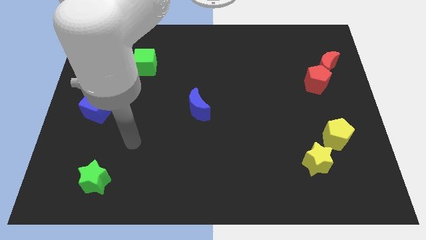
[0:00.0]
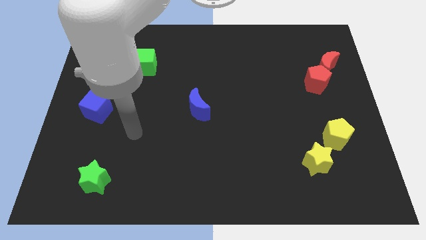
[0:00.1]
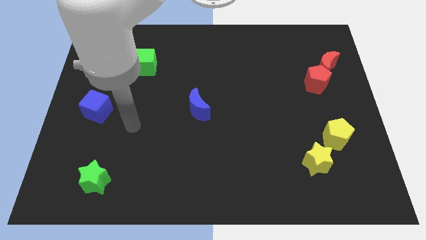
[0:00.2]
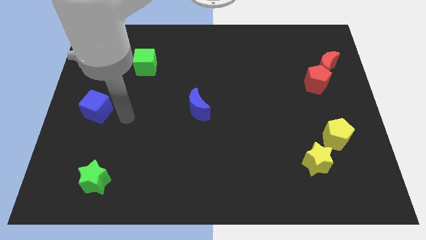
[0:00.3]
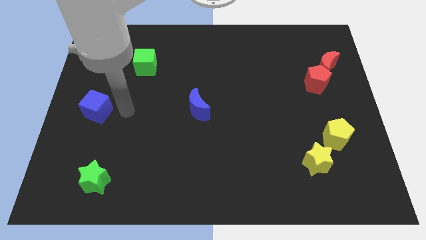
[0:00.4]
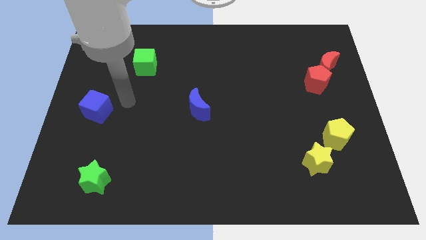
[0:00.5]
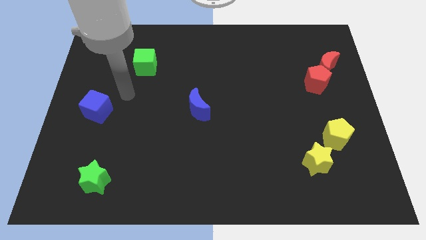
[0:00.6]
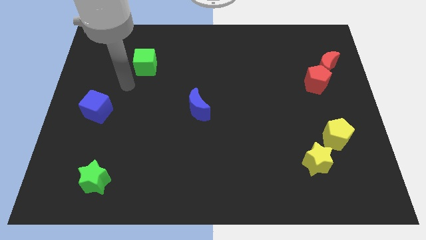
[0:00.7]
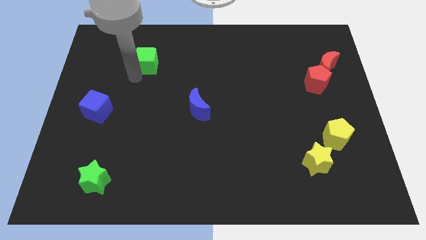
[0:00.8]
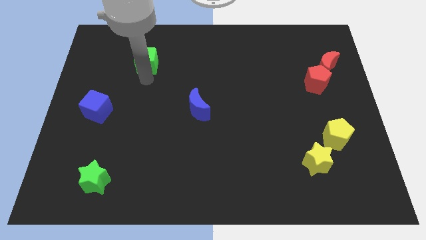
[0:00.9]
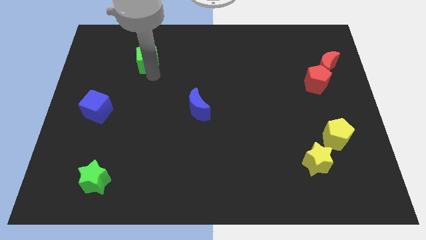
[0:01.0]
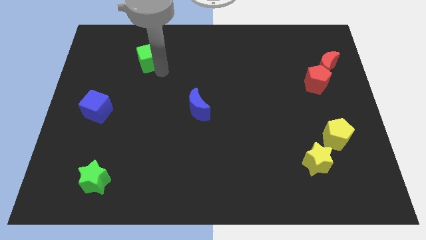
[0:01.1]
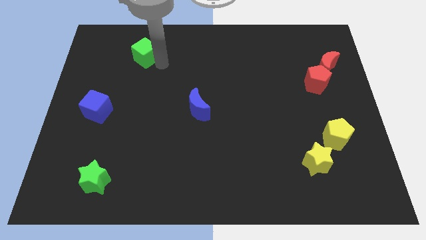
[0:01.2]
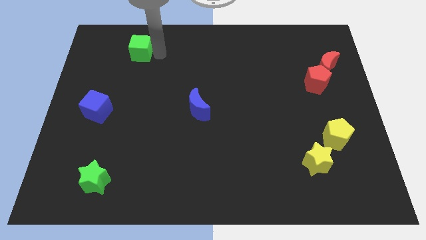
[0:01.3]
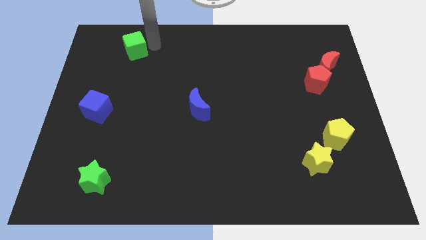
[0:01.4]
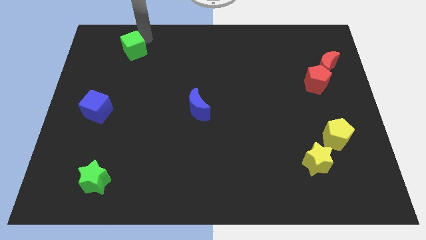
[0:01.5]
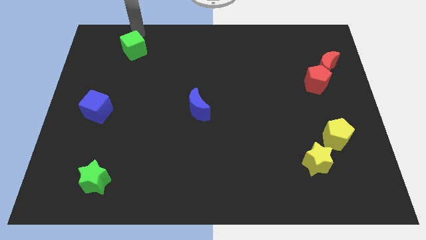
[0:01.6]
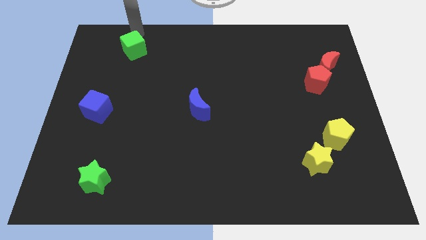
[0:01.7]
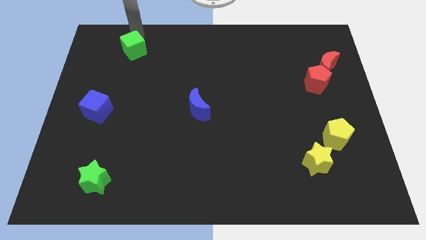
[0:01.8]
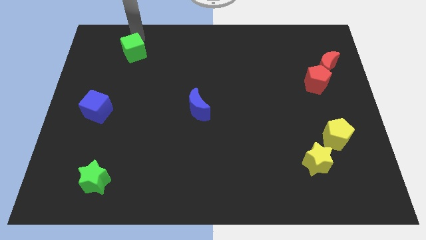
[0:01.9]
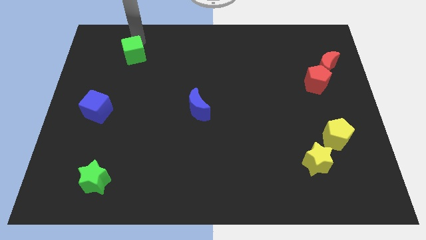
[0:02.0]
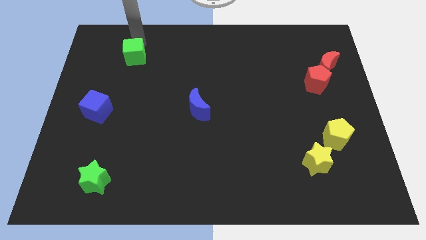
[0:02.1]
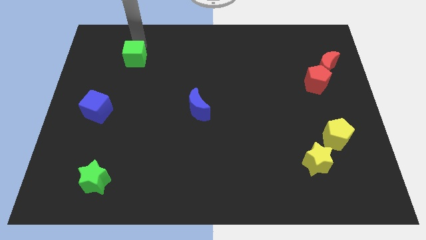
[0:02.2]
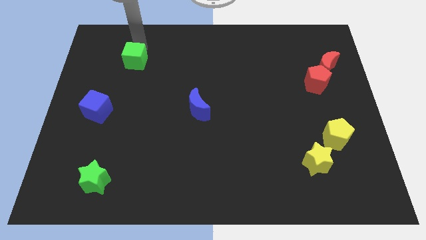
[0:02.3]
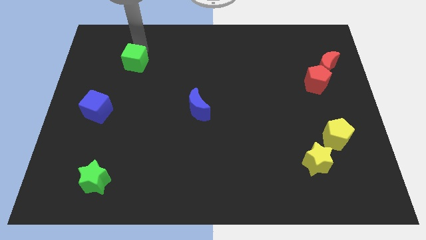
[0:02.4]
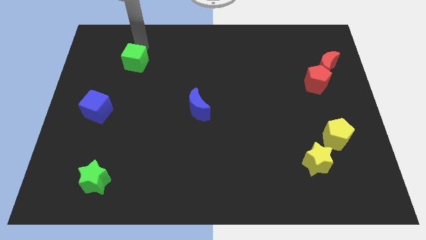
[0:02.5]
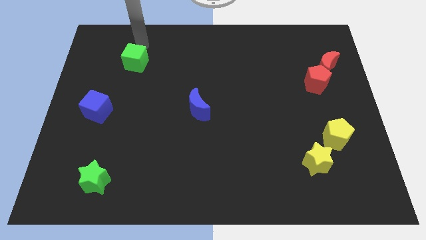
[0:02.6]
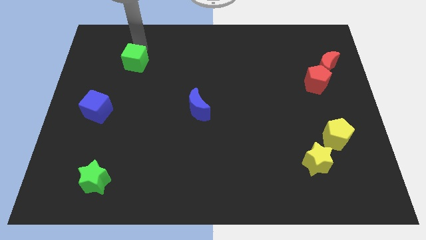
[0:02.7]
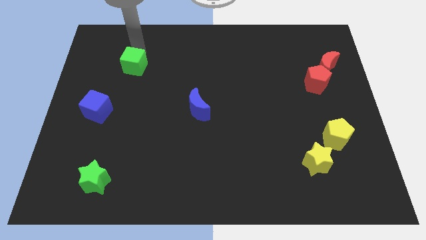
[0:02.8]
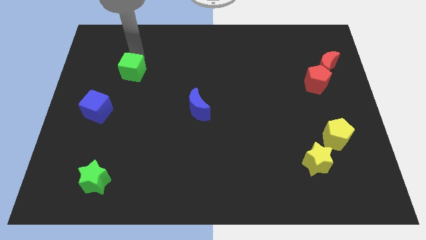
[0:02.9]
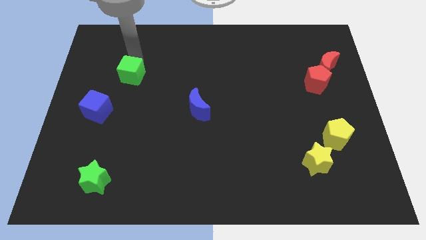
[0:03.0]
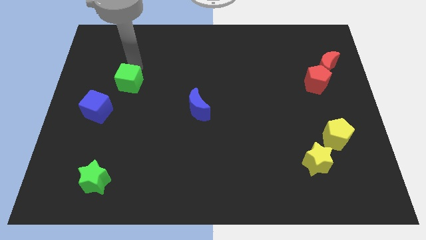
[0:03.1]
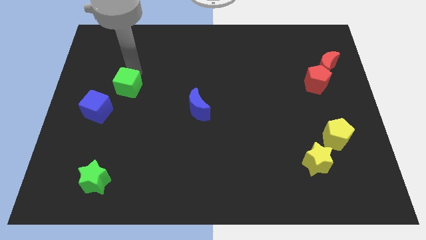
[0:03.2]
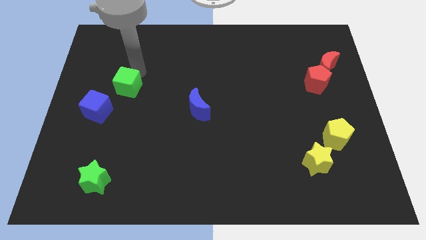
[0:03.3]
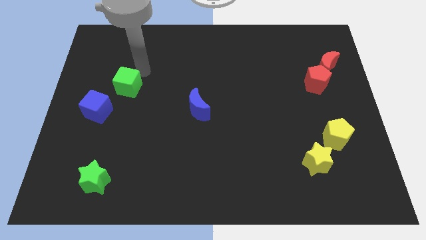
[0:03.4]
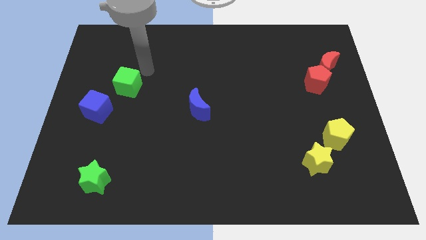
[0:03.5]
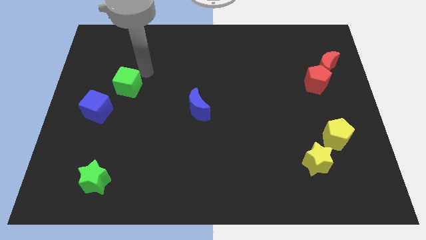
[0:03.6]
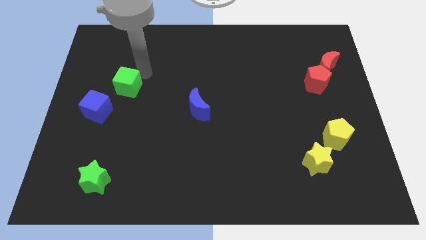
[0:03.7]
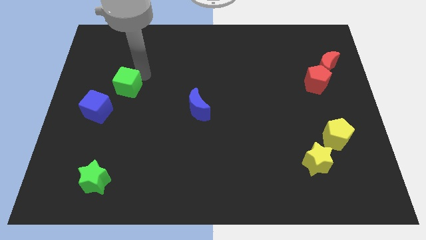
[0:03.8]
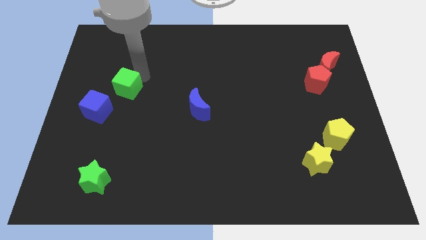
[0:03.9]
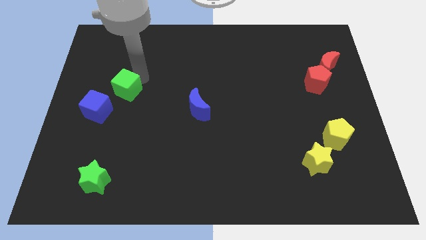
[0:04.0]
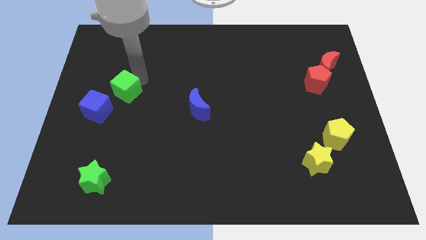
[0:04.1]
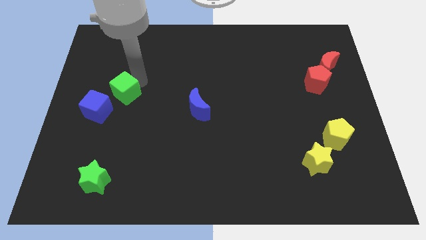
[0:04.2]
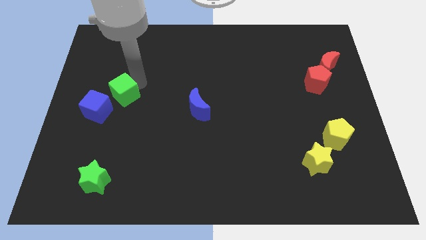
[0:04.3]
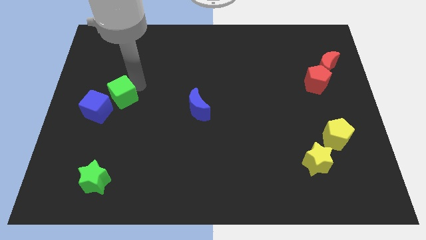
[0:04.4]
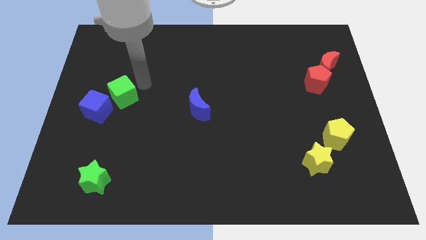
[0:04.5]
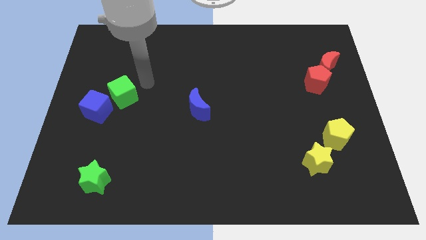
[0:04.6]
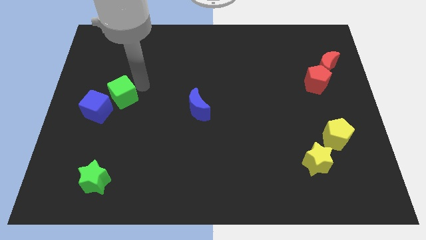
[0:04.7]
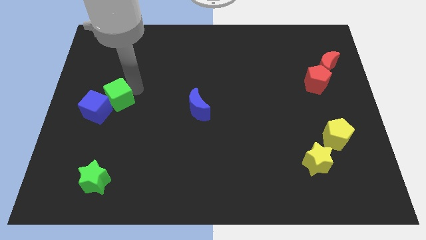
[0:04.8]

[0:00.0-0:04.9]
move the green cube towards the blue cube

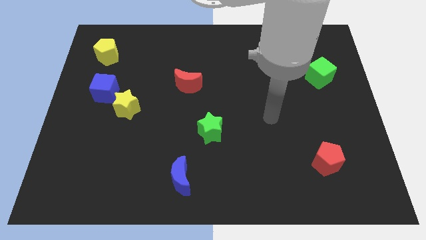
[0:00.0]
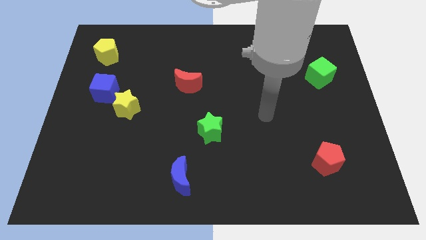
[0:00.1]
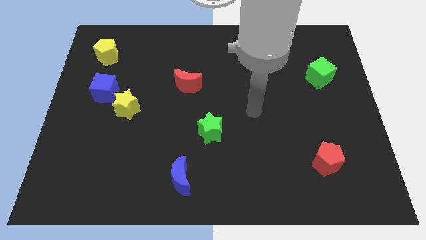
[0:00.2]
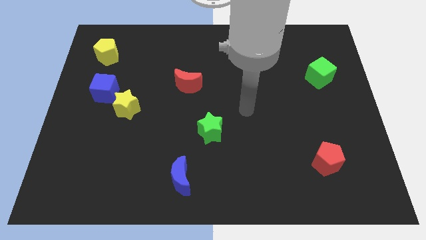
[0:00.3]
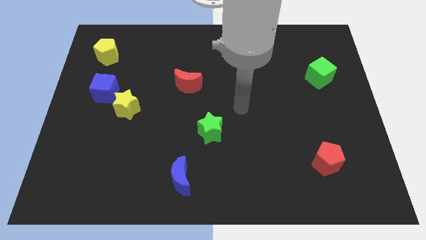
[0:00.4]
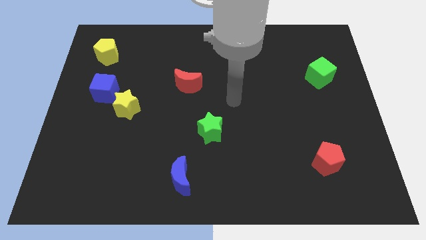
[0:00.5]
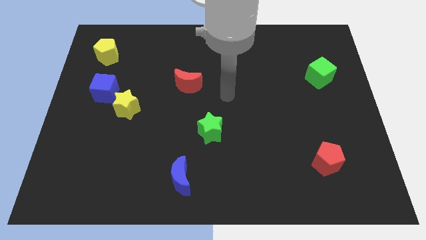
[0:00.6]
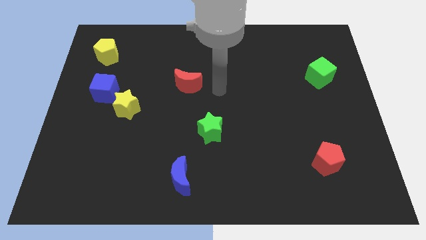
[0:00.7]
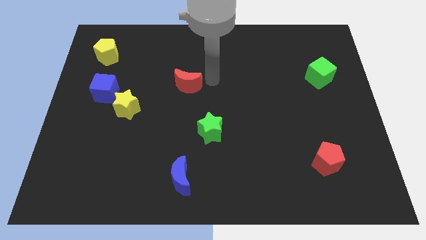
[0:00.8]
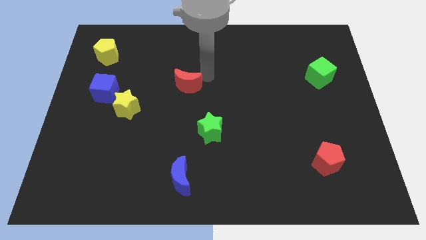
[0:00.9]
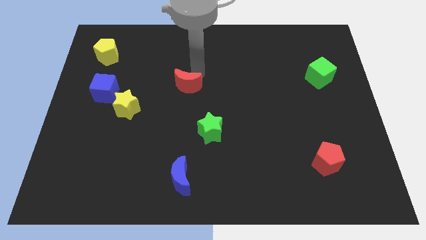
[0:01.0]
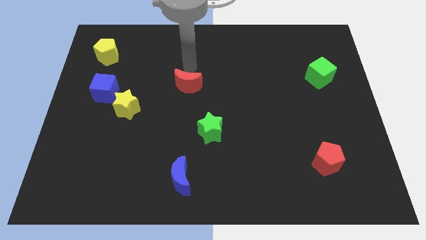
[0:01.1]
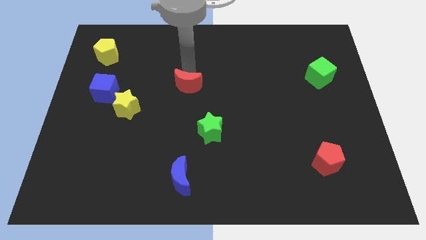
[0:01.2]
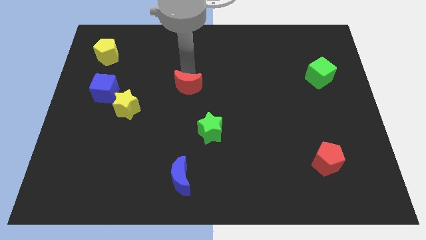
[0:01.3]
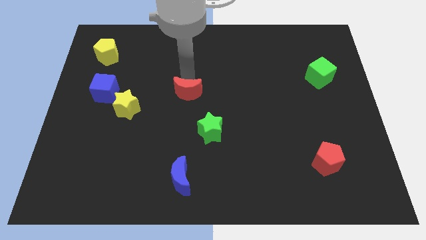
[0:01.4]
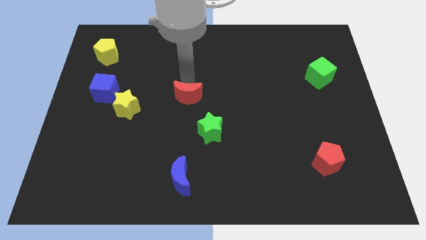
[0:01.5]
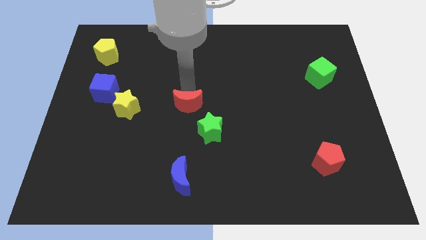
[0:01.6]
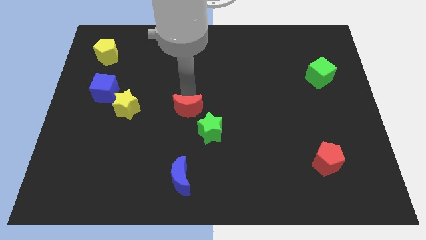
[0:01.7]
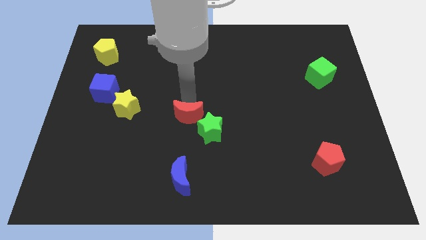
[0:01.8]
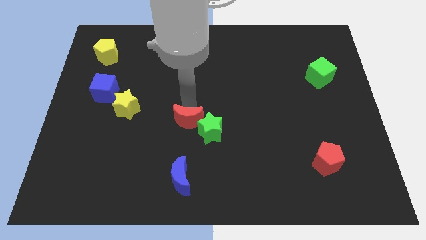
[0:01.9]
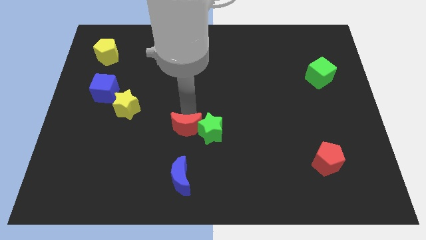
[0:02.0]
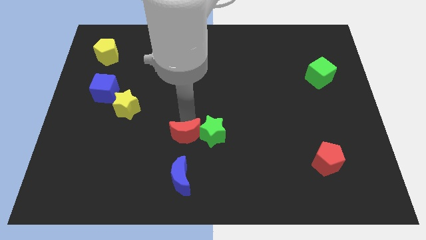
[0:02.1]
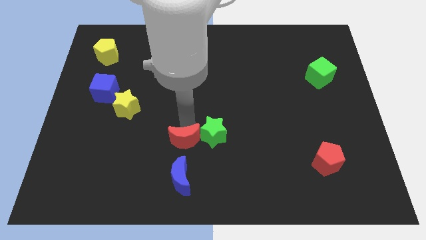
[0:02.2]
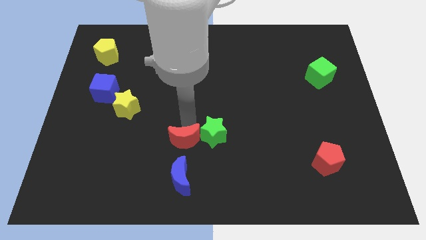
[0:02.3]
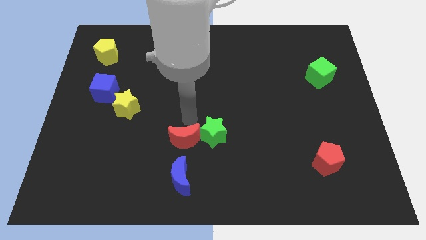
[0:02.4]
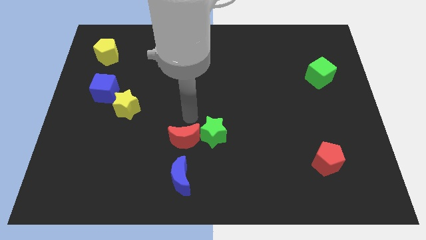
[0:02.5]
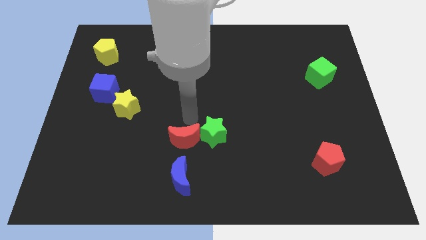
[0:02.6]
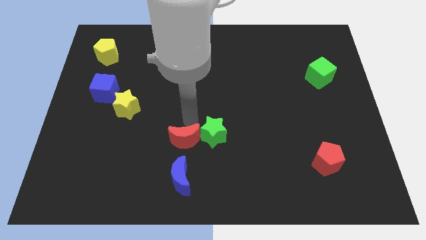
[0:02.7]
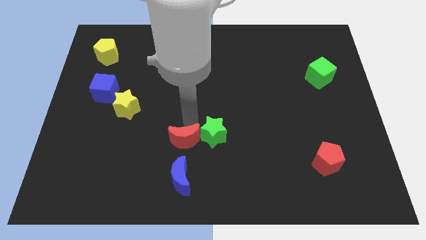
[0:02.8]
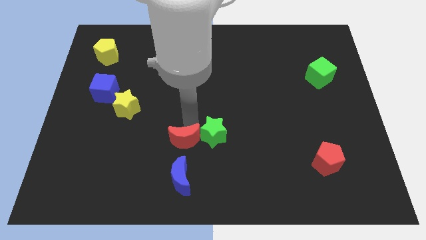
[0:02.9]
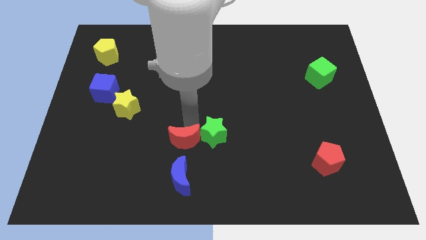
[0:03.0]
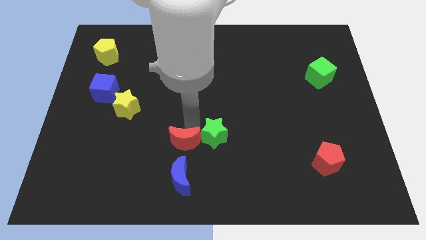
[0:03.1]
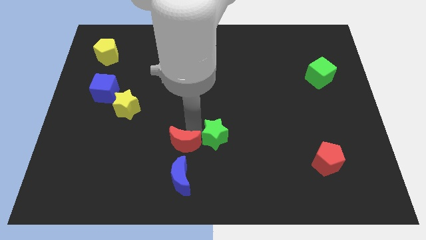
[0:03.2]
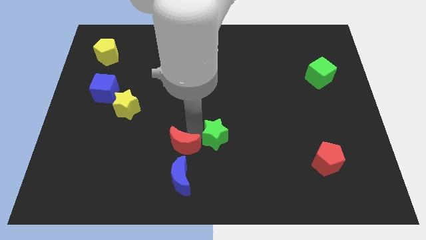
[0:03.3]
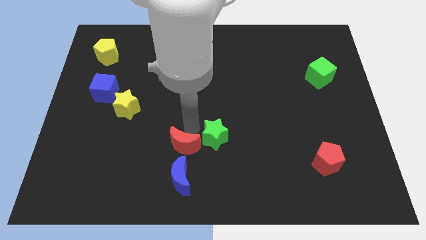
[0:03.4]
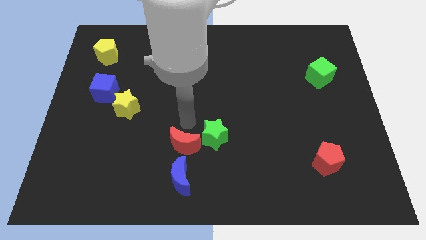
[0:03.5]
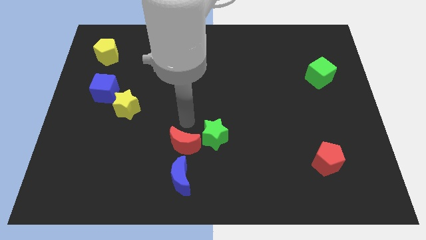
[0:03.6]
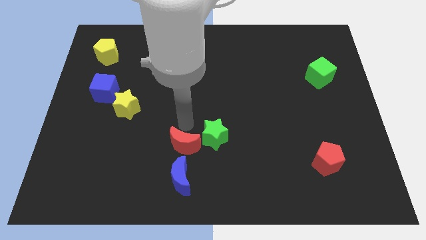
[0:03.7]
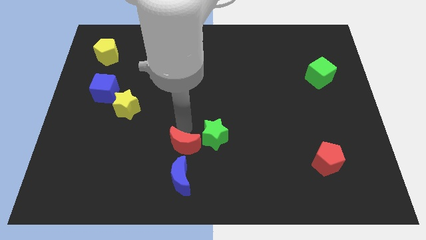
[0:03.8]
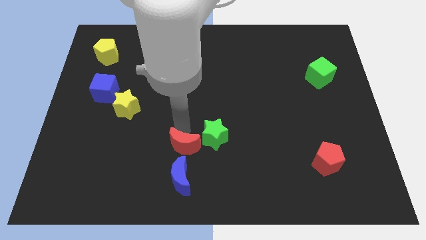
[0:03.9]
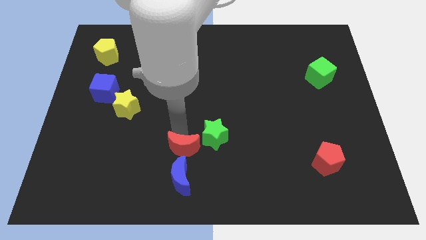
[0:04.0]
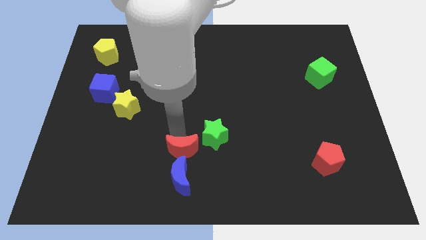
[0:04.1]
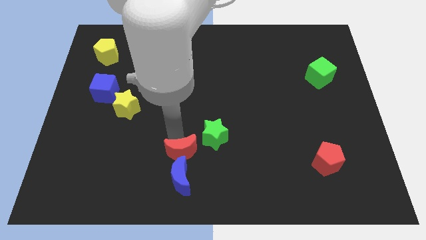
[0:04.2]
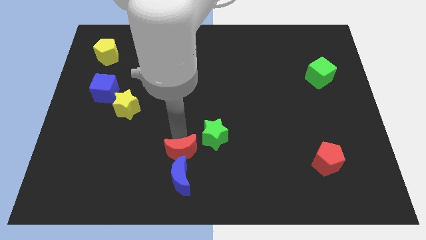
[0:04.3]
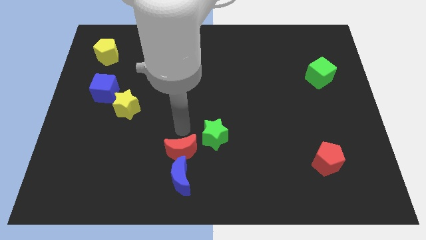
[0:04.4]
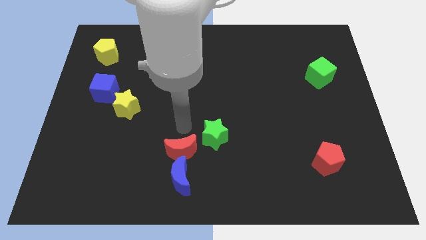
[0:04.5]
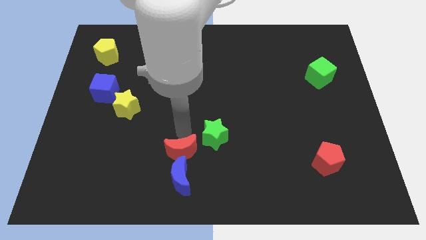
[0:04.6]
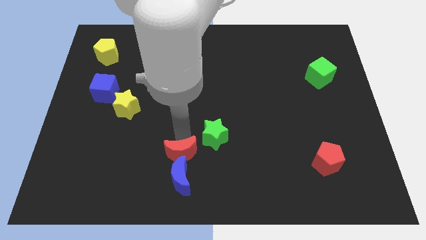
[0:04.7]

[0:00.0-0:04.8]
push the red moon towards the blue moon
